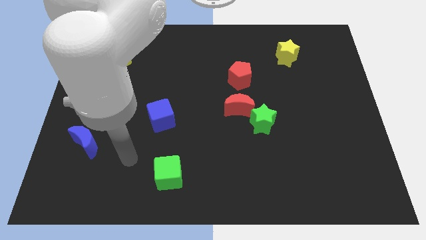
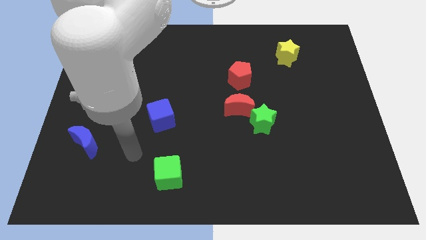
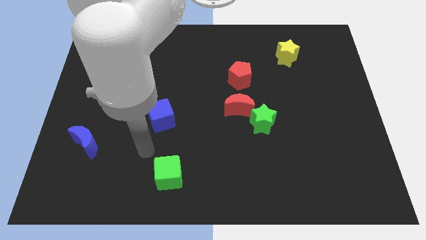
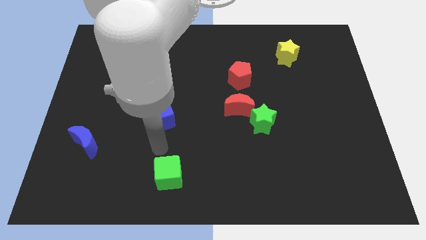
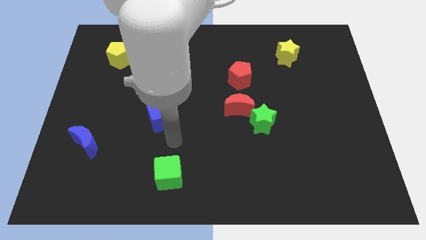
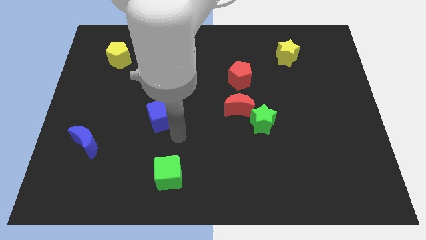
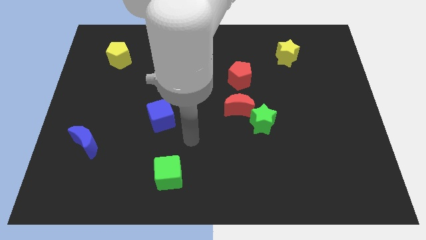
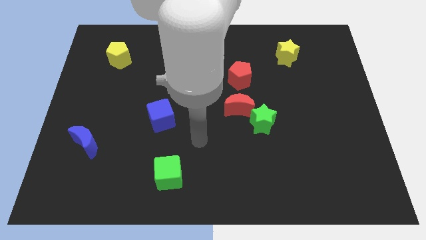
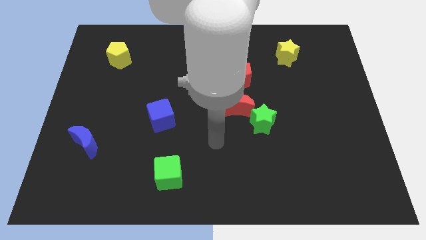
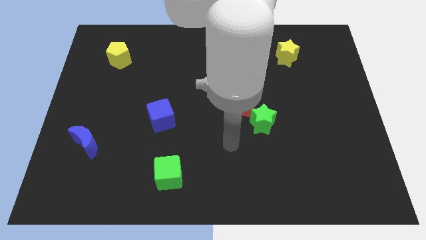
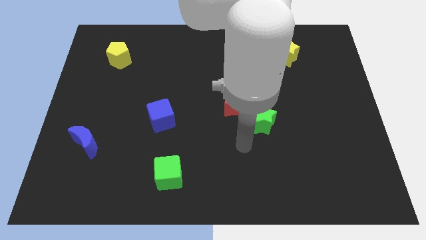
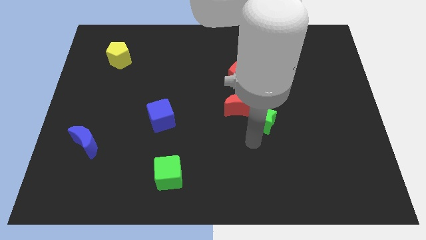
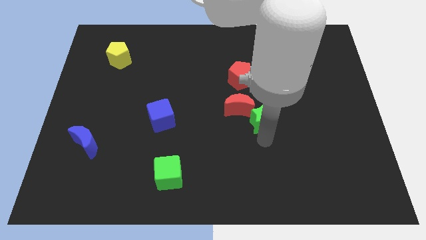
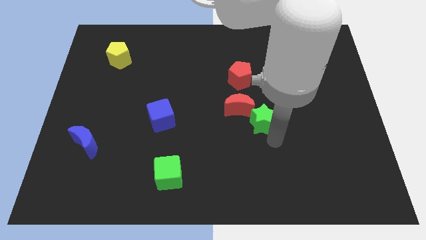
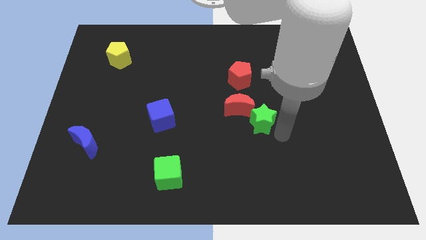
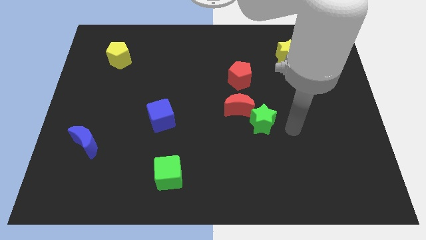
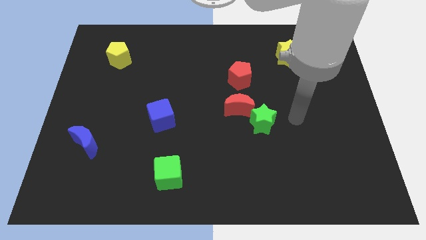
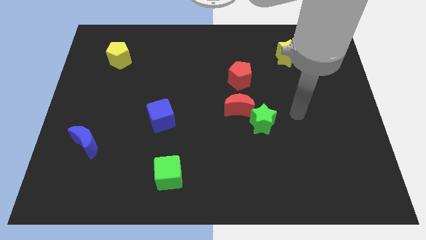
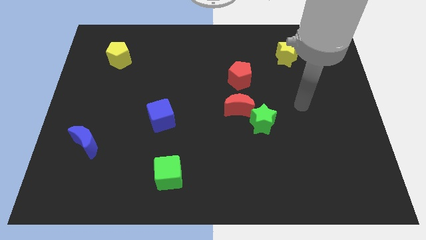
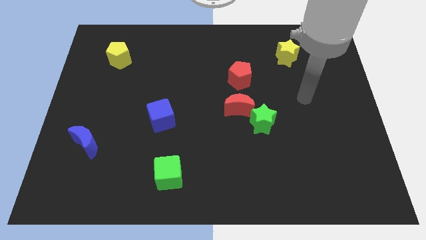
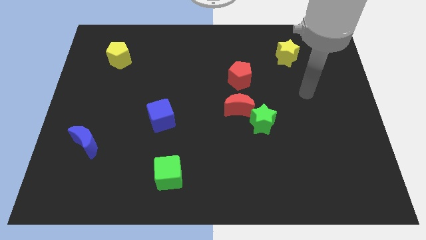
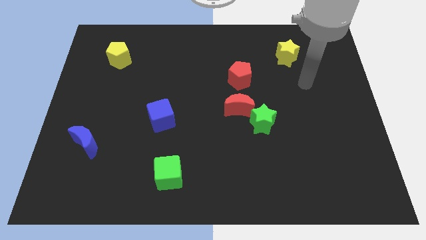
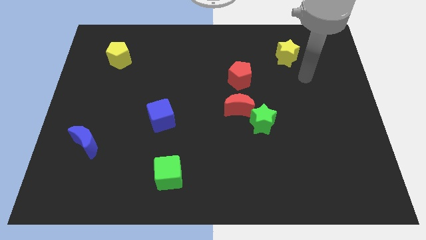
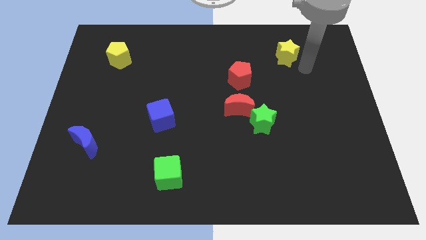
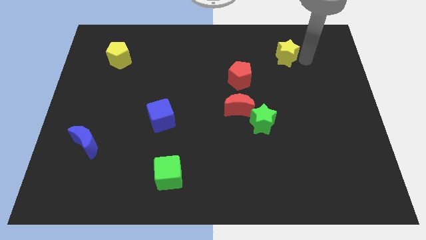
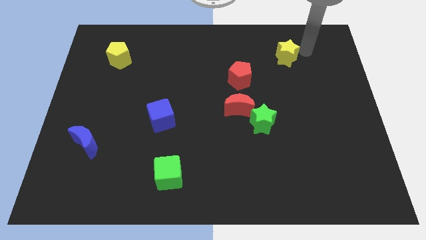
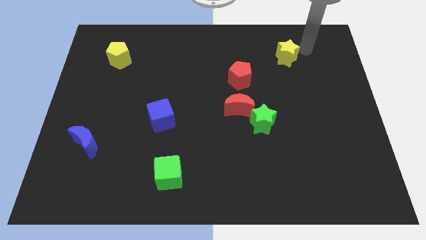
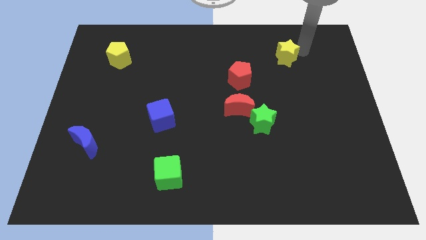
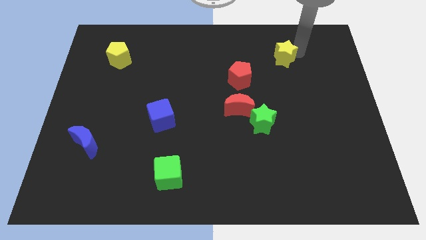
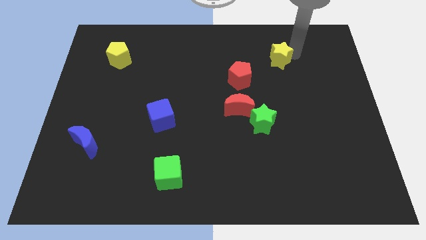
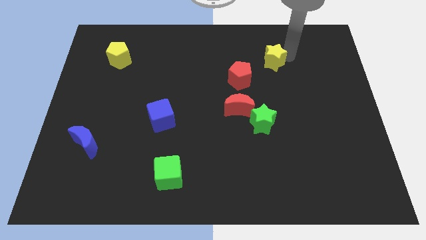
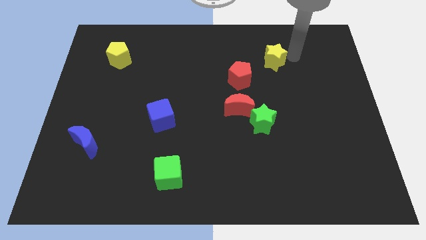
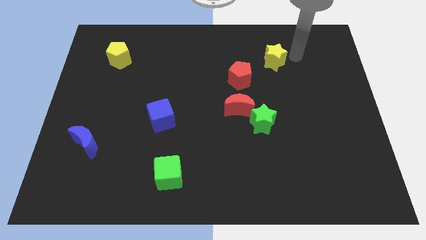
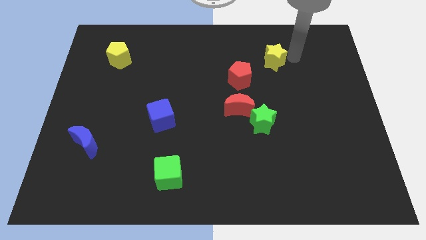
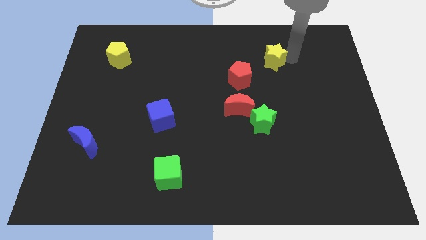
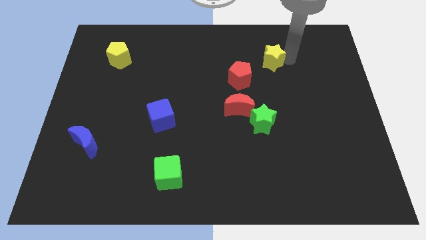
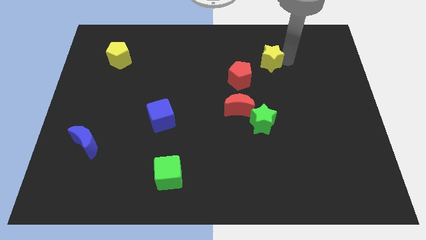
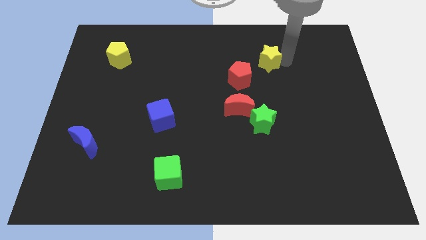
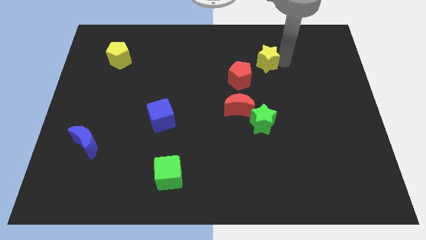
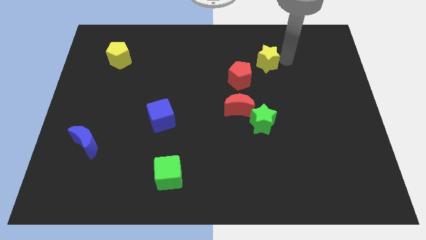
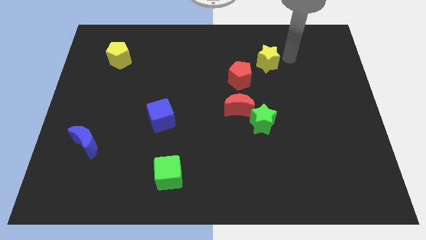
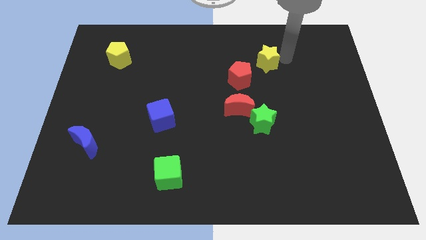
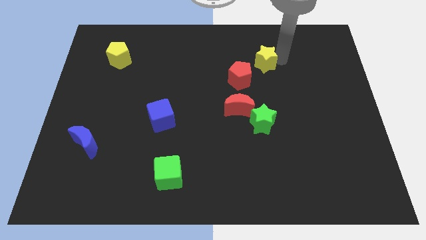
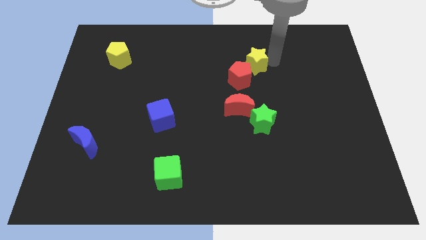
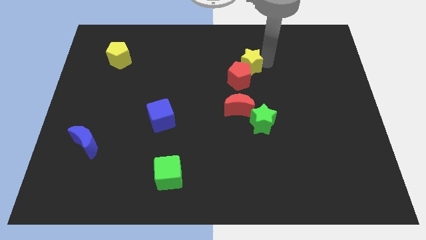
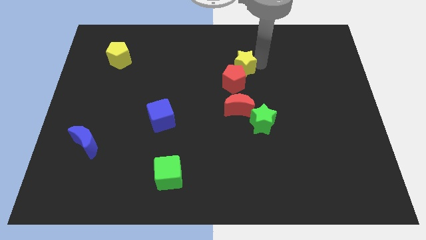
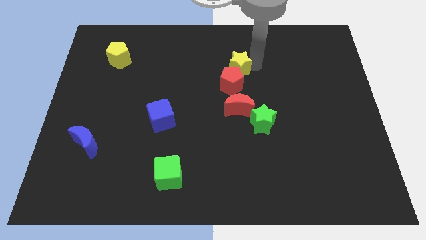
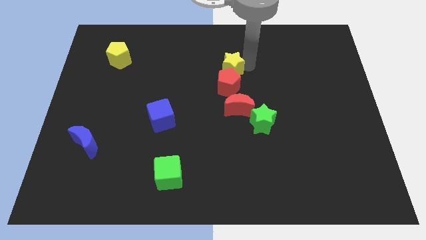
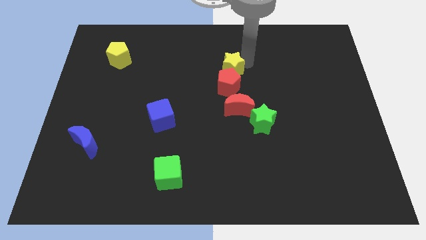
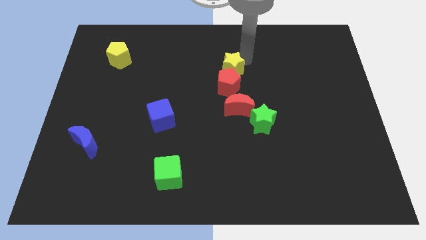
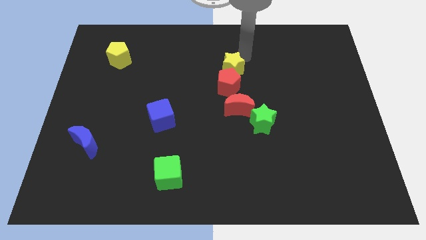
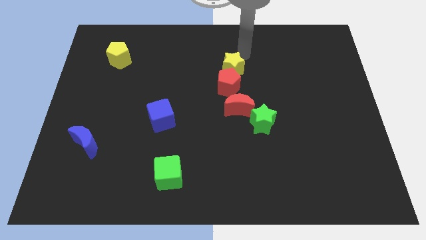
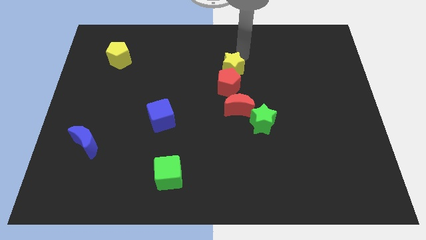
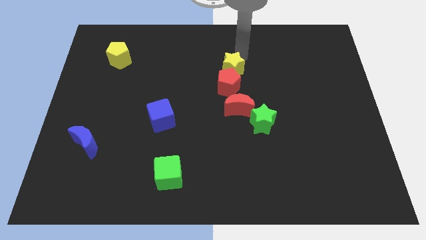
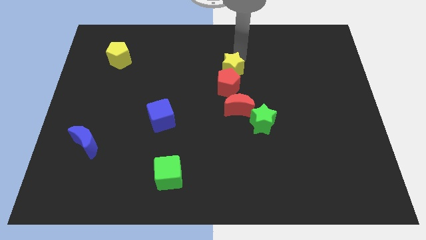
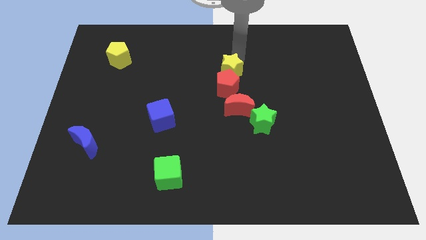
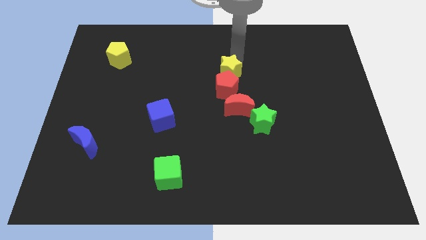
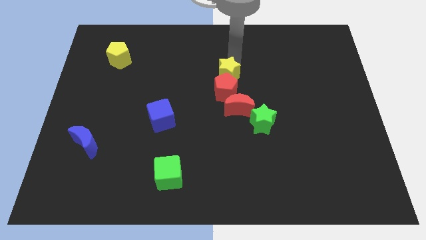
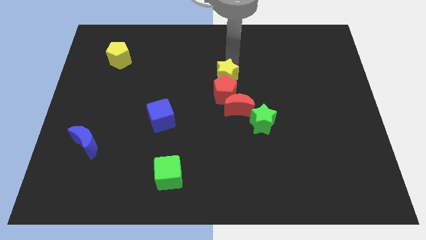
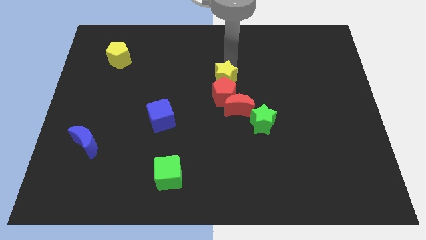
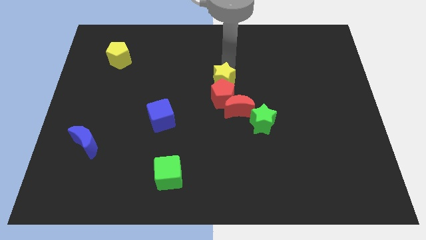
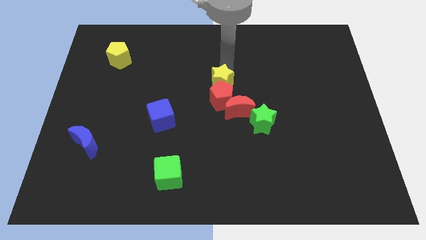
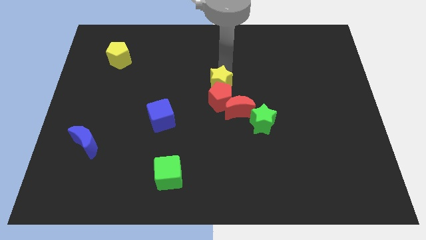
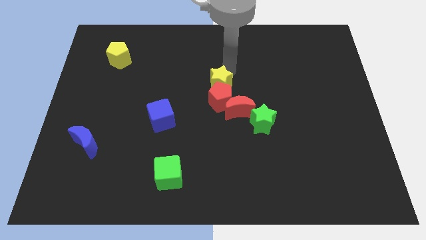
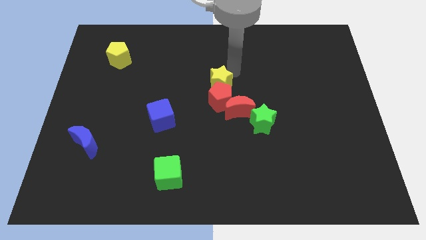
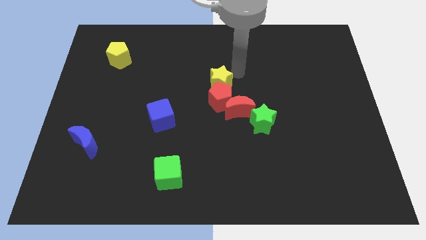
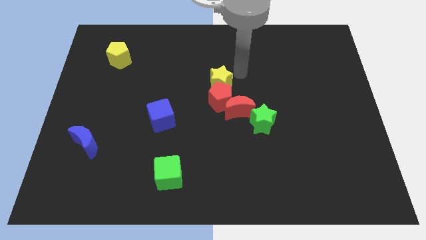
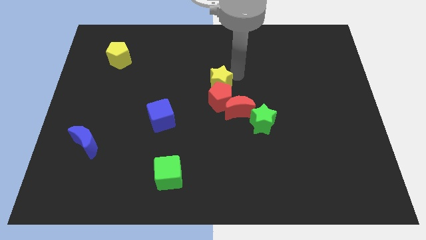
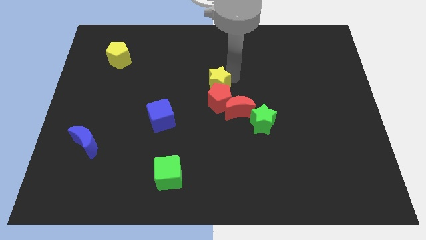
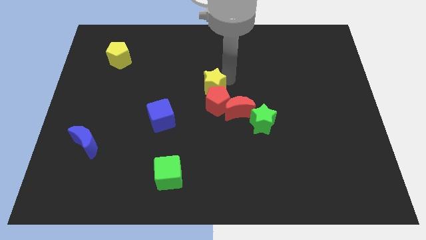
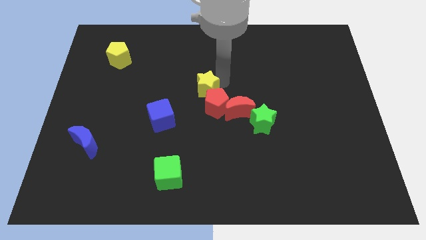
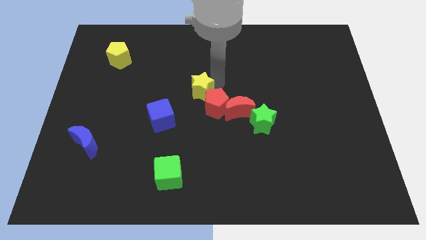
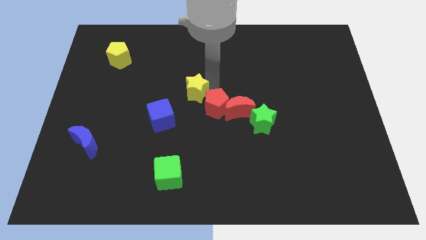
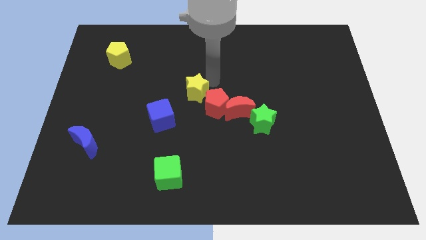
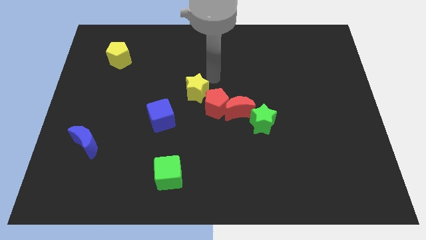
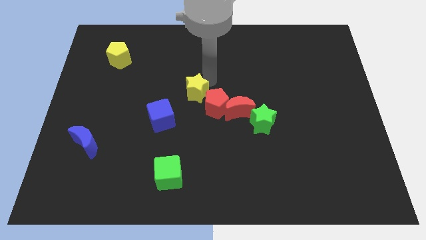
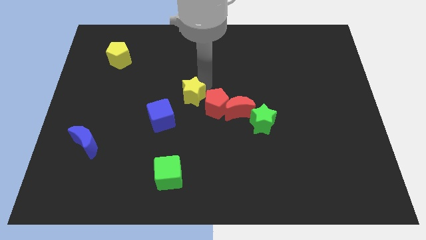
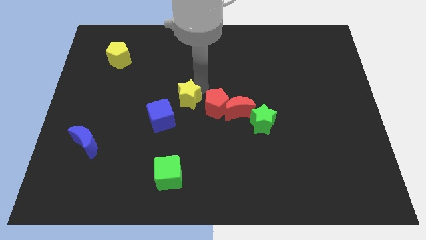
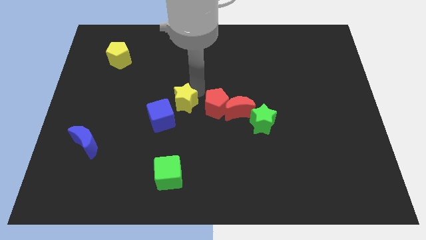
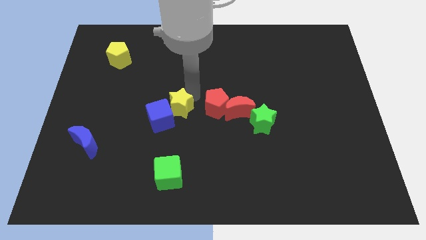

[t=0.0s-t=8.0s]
move the yellow star close to the blue cube
